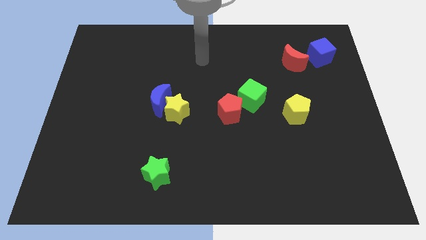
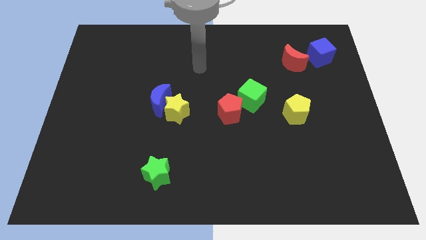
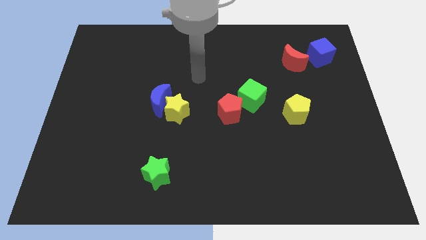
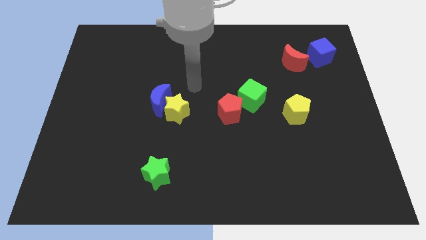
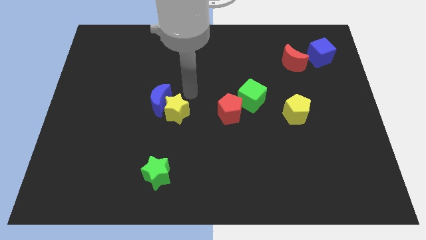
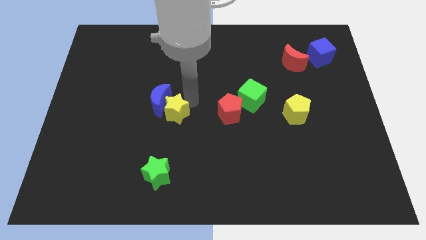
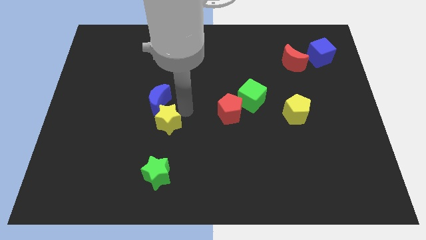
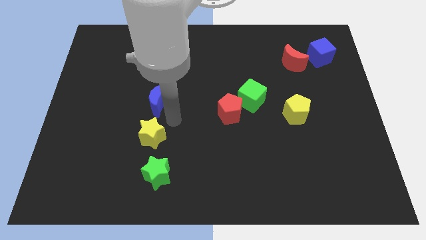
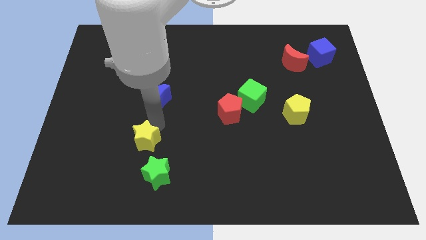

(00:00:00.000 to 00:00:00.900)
separate the blue moon from the yellow star

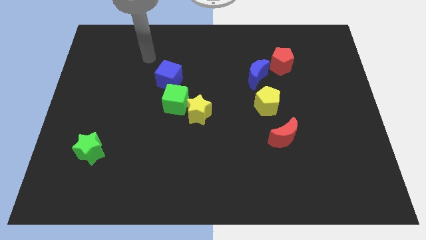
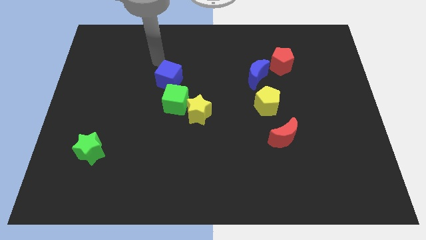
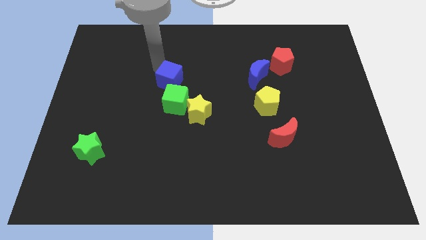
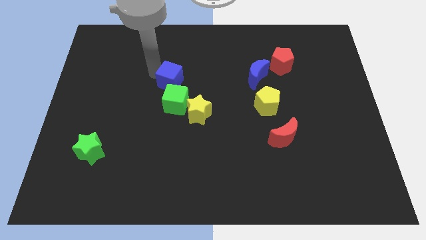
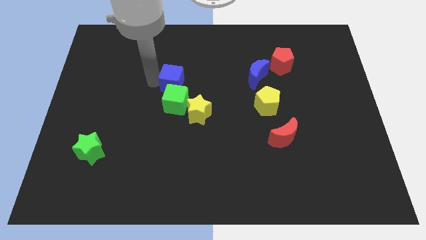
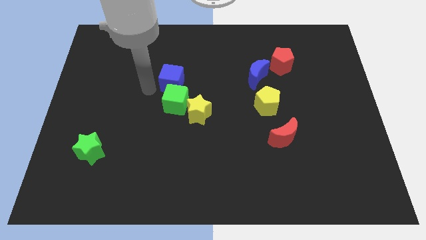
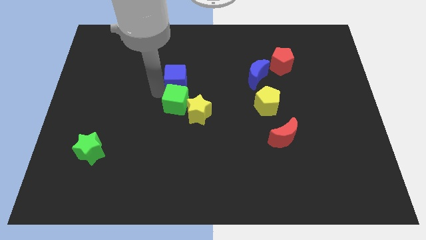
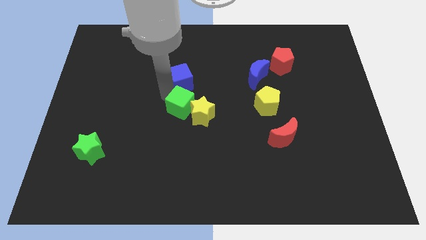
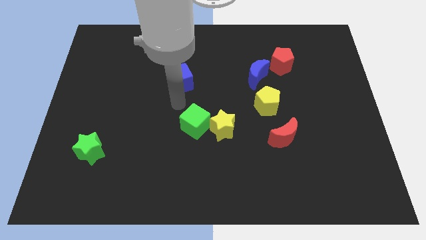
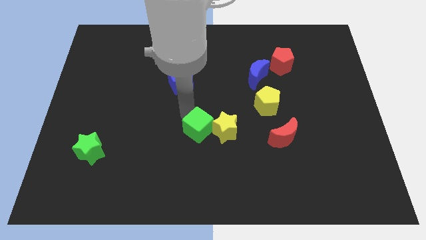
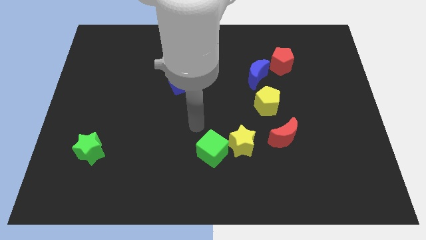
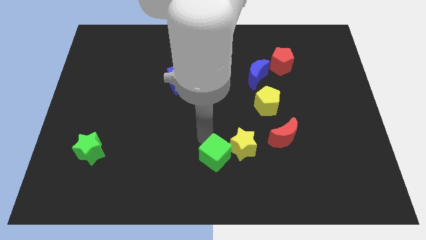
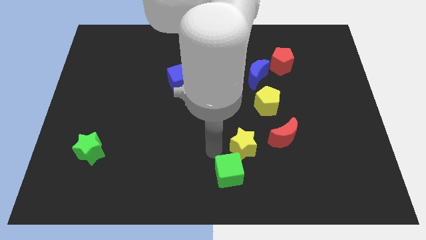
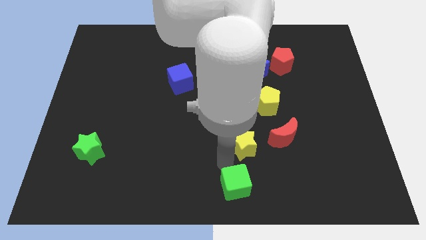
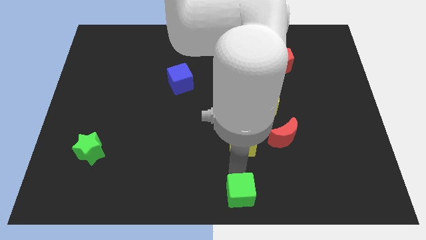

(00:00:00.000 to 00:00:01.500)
separate the yellow star from the green cube

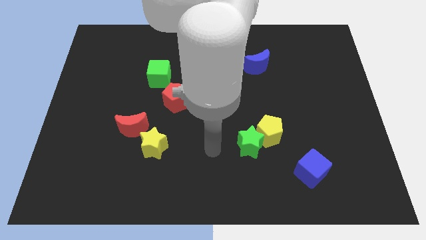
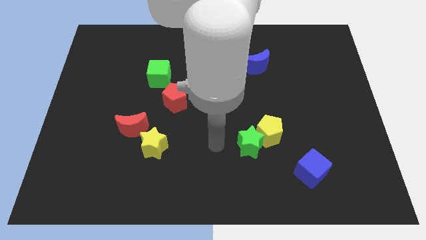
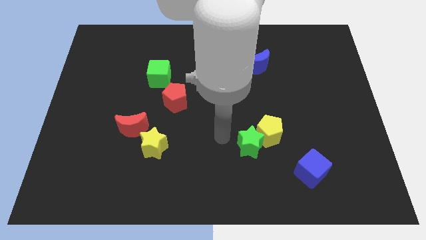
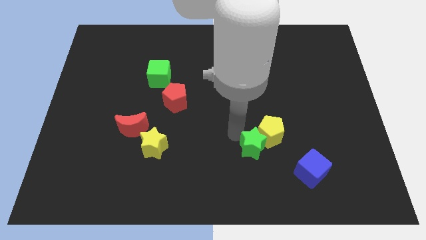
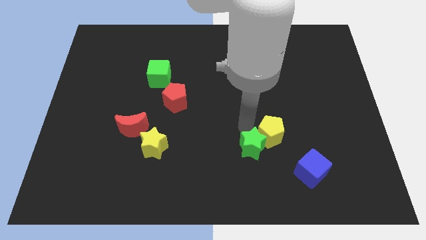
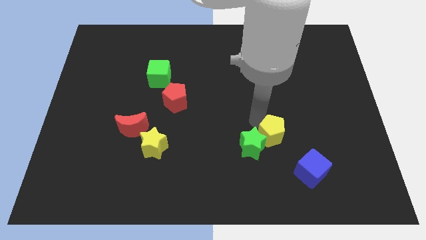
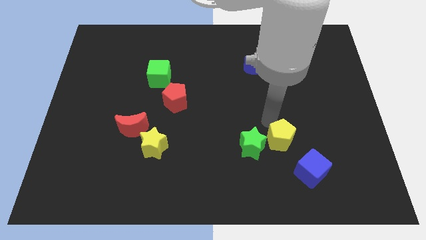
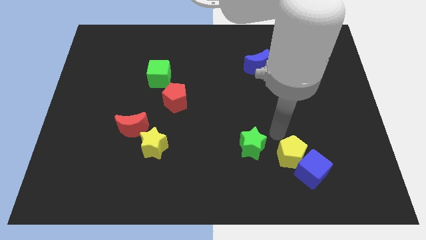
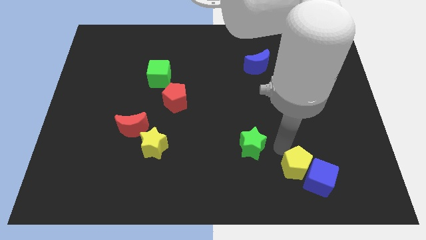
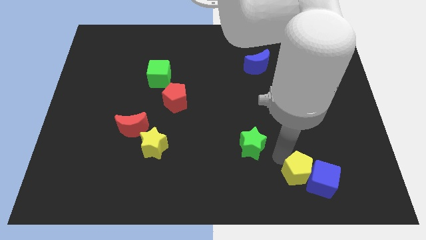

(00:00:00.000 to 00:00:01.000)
move the green star away from the yellow pentagon

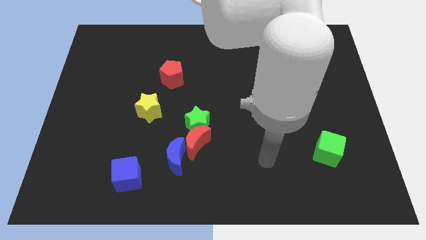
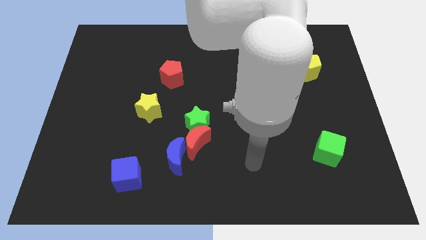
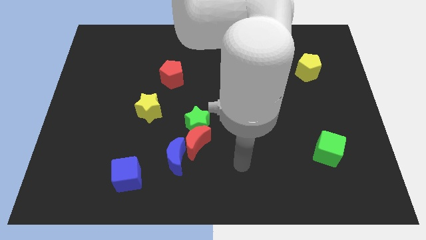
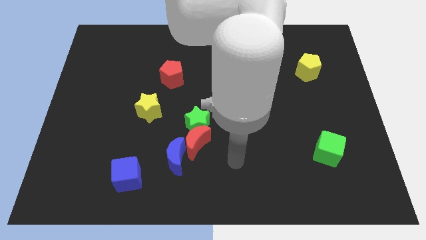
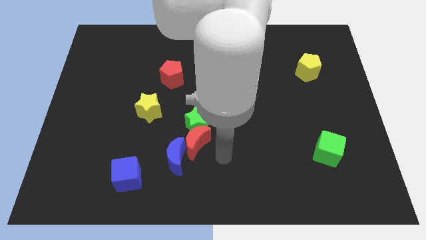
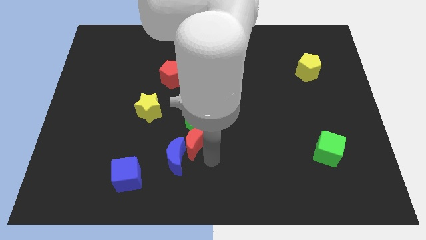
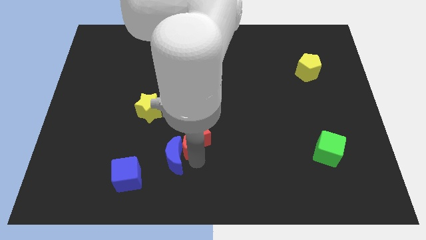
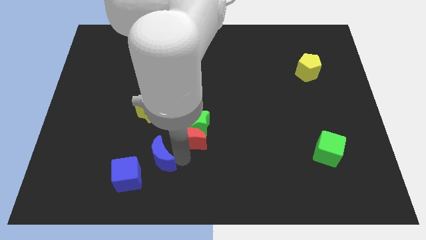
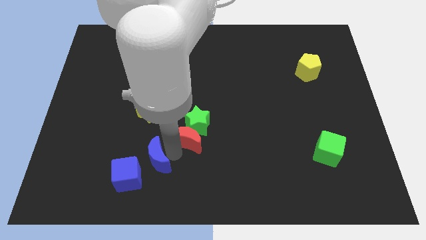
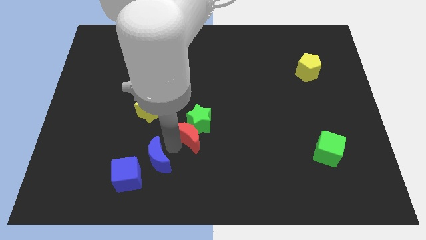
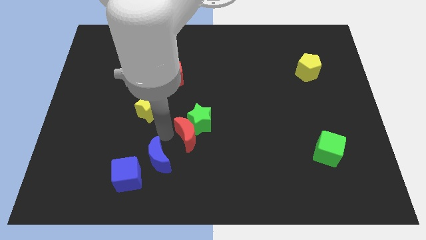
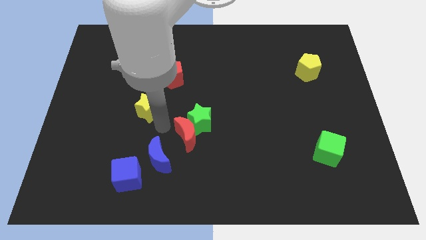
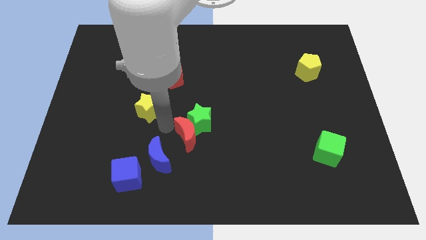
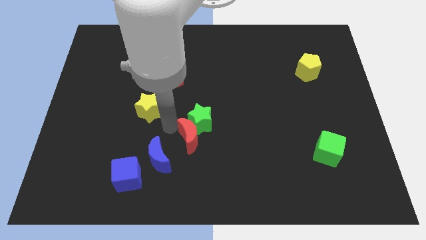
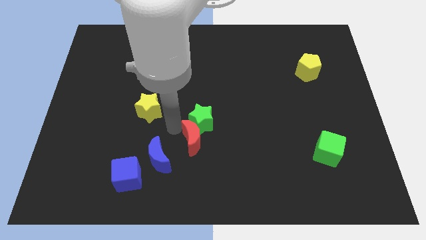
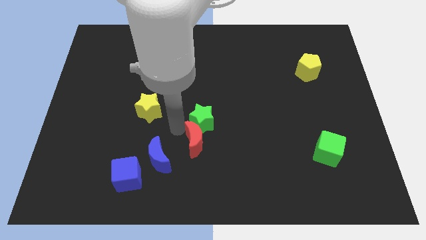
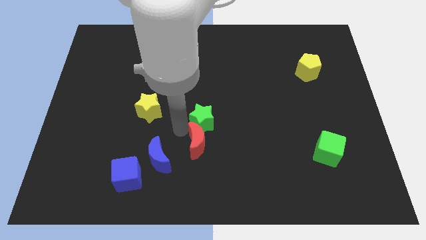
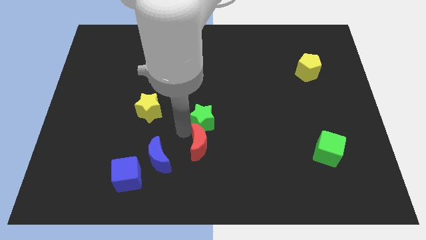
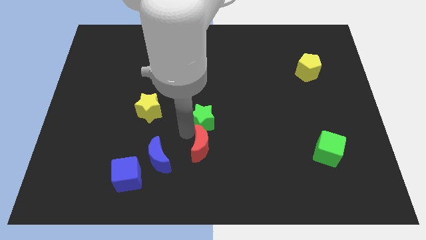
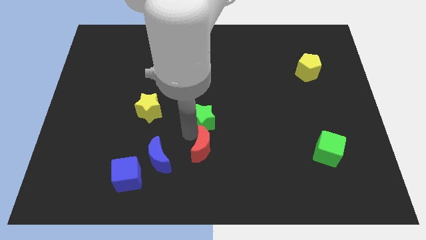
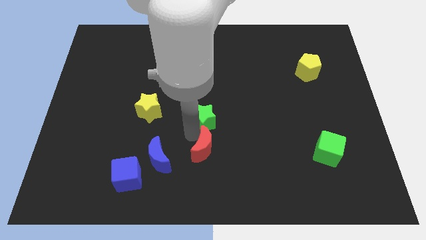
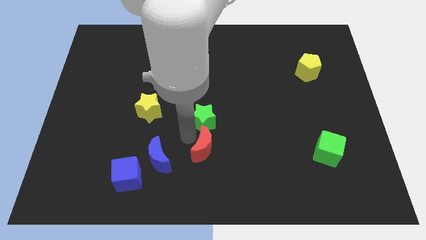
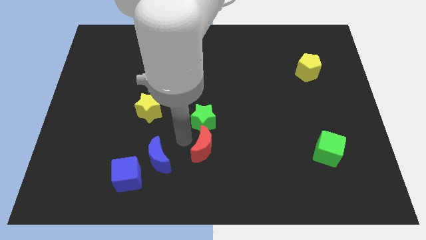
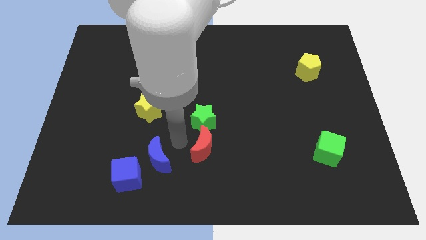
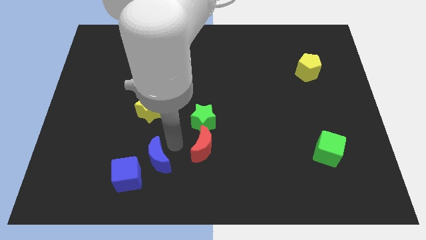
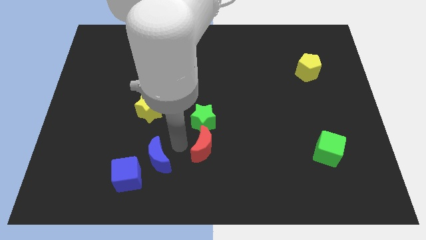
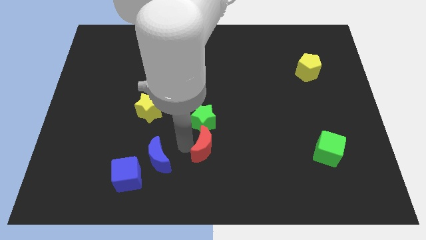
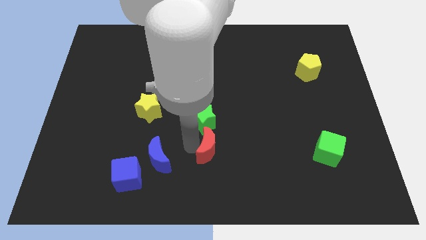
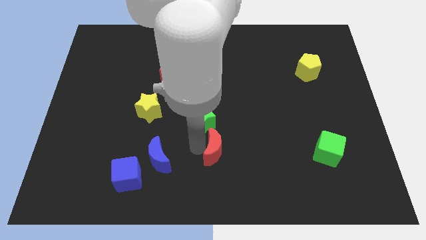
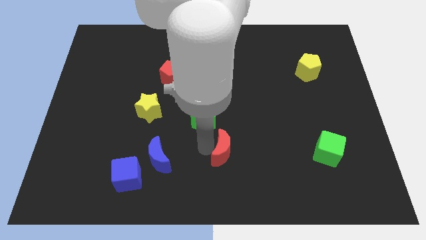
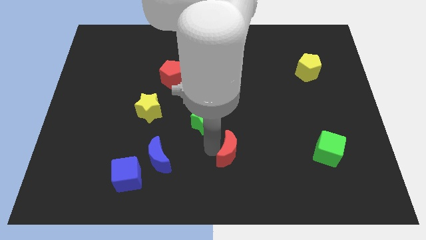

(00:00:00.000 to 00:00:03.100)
move the red moon away from the green star and blue moon

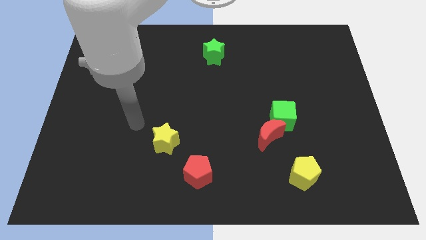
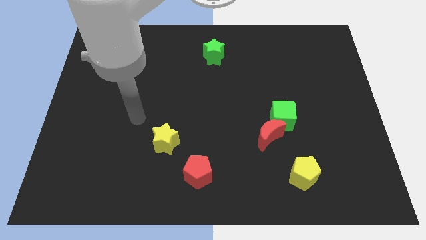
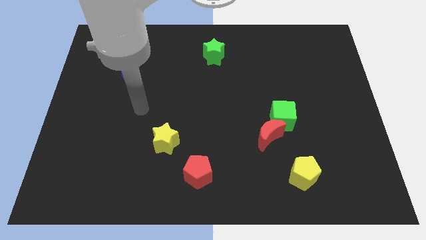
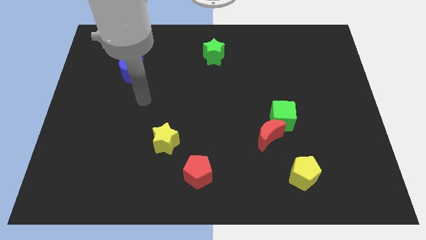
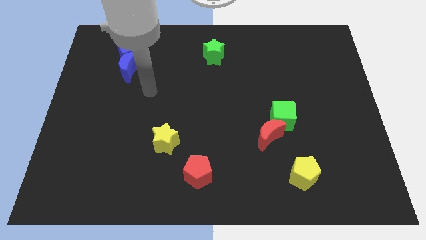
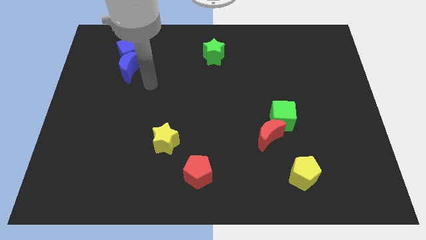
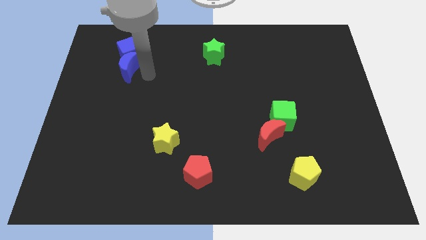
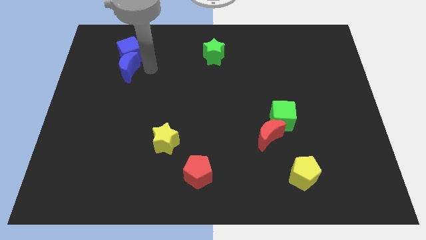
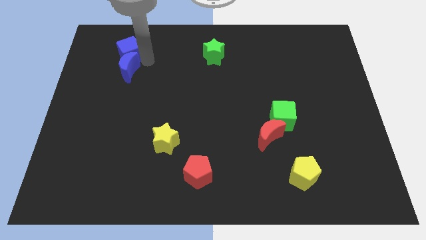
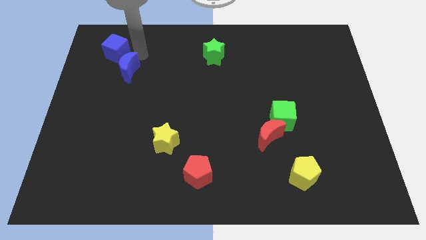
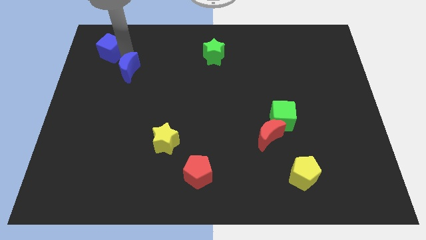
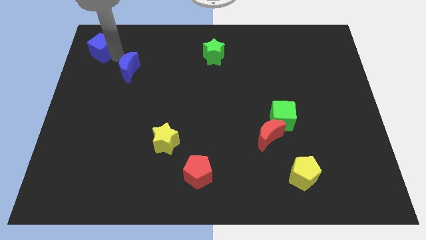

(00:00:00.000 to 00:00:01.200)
separate the blue moon from the blue cube

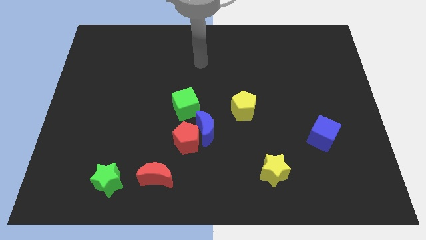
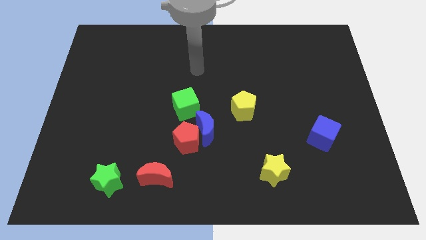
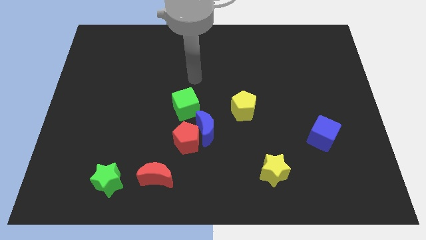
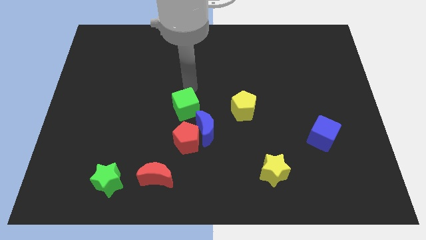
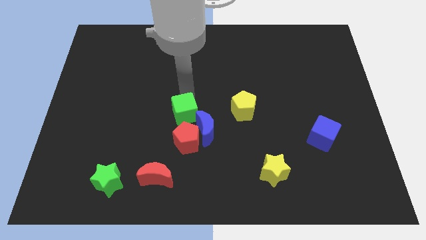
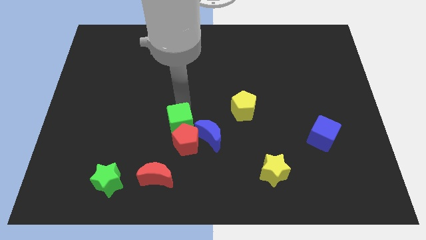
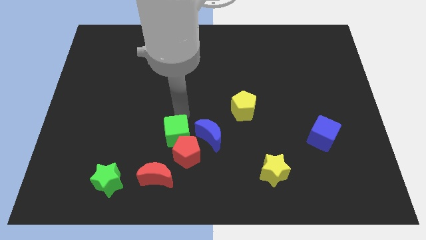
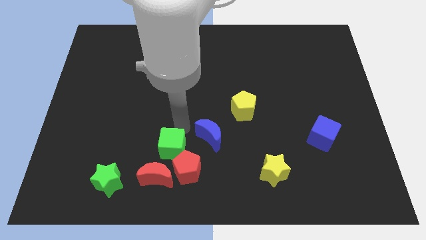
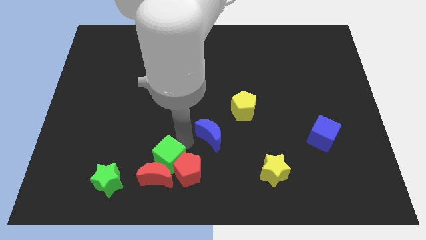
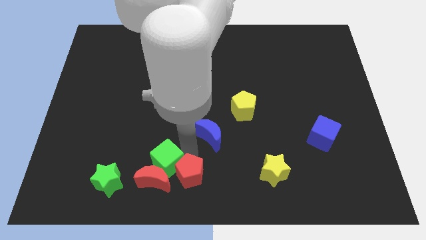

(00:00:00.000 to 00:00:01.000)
move the blue moon away from the red pentagon and green cube

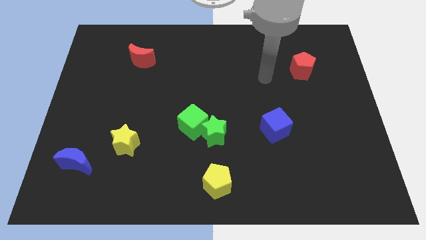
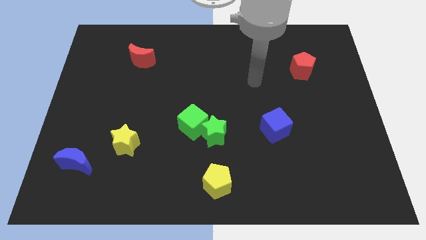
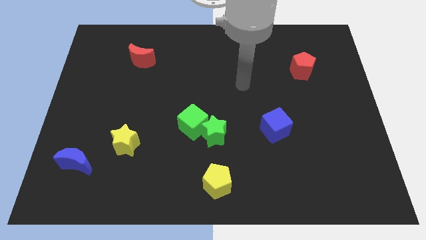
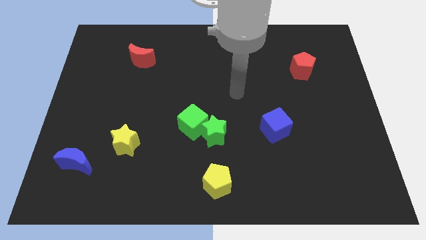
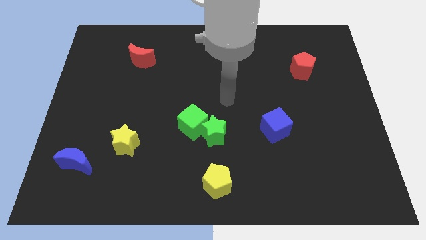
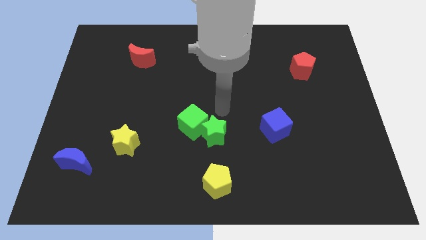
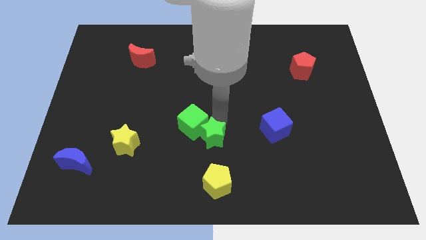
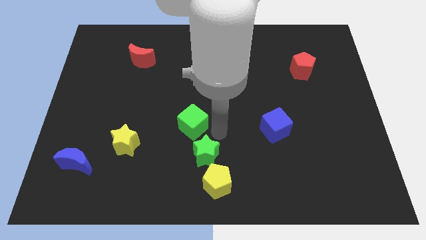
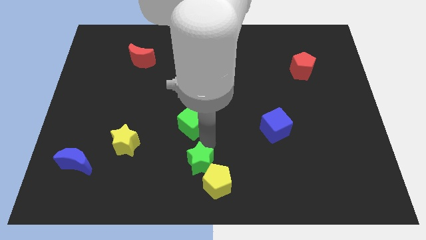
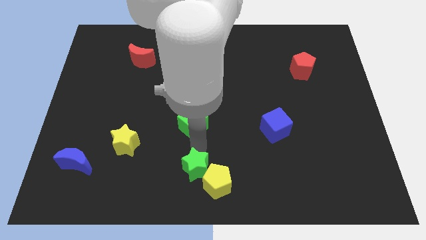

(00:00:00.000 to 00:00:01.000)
pull the green cube apart from the green star
